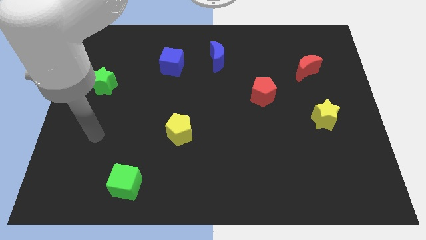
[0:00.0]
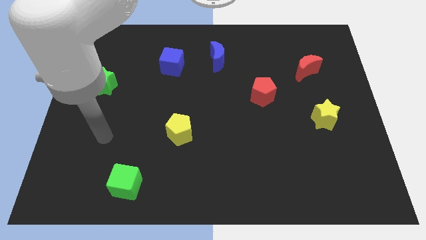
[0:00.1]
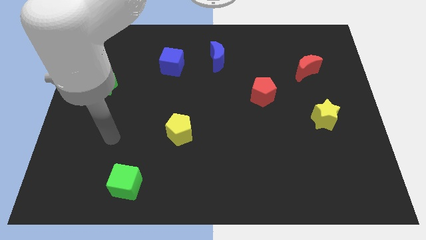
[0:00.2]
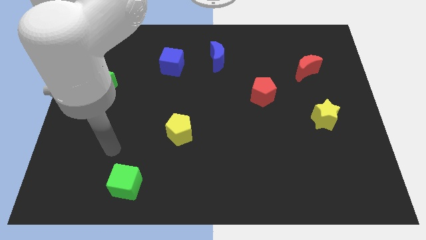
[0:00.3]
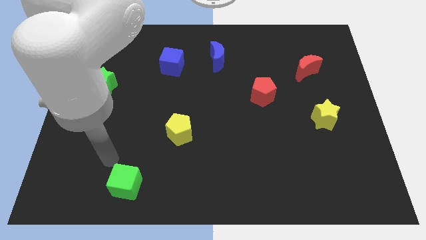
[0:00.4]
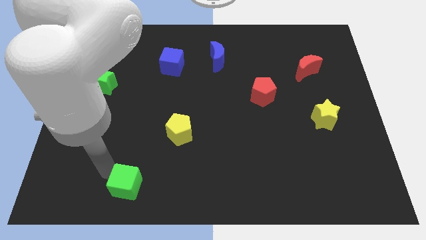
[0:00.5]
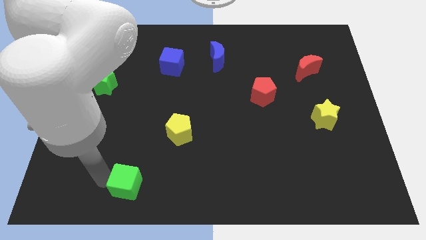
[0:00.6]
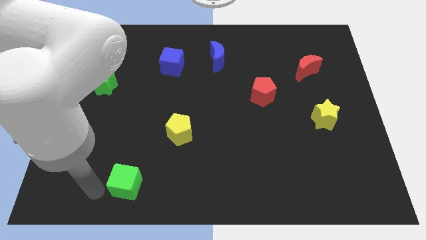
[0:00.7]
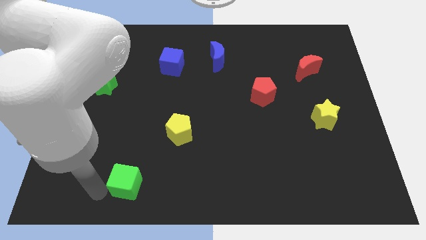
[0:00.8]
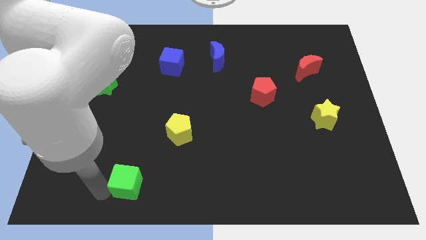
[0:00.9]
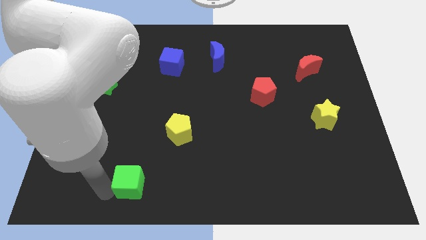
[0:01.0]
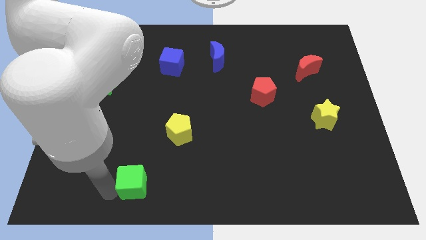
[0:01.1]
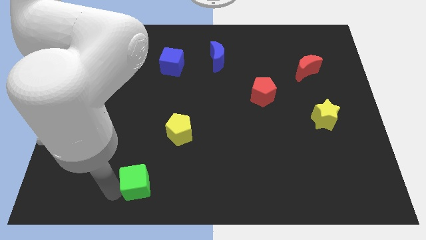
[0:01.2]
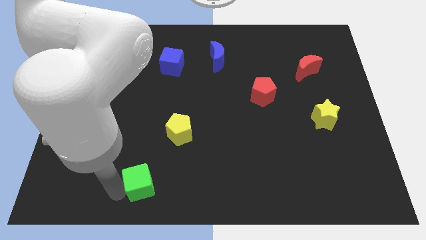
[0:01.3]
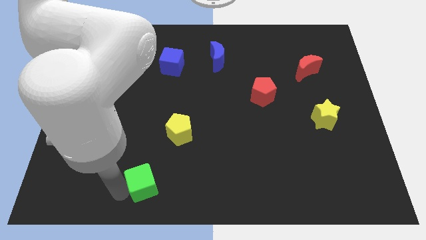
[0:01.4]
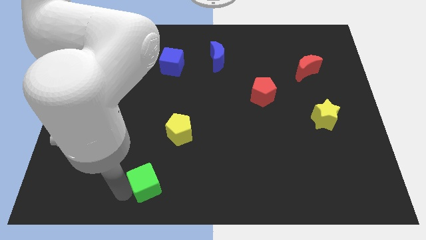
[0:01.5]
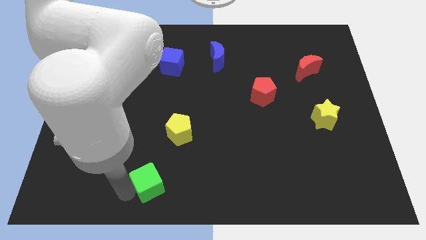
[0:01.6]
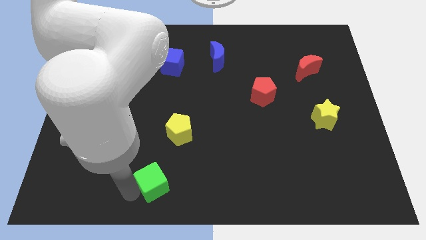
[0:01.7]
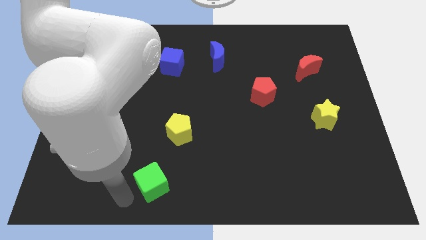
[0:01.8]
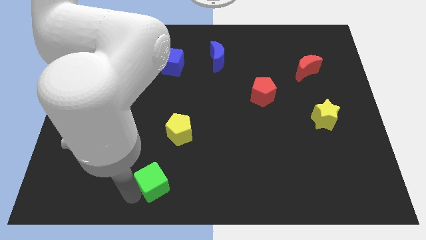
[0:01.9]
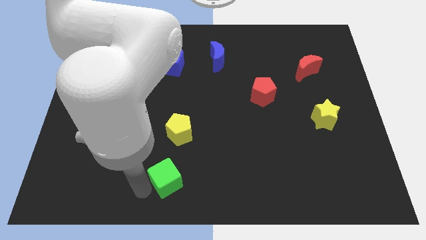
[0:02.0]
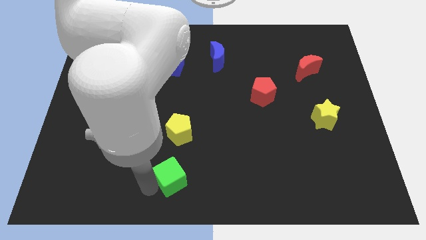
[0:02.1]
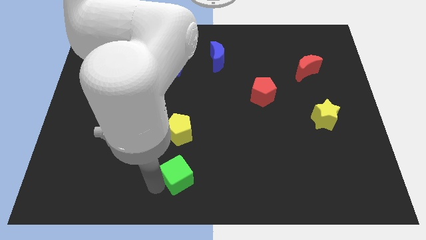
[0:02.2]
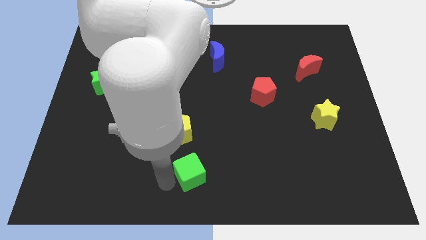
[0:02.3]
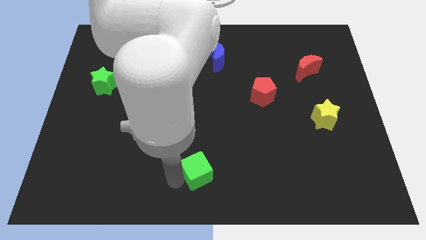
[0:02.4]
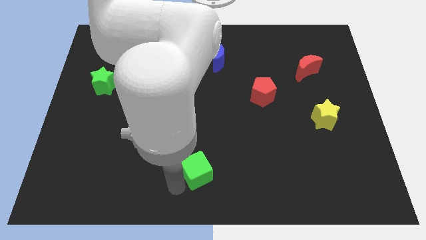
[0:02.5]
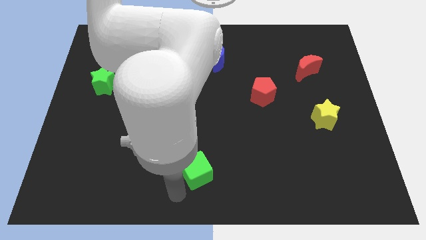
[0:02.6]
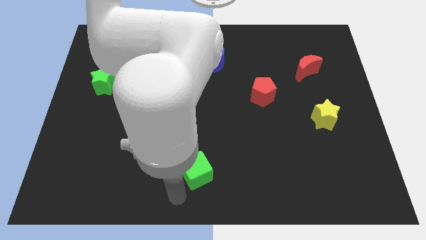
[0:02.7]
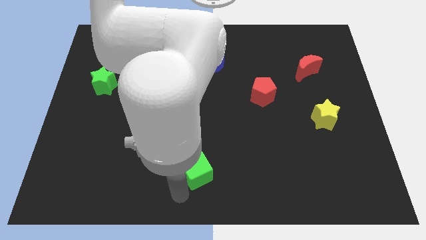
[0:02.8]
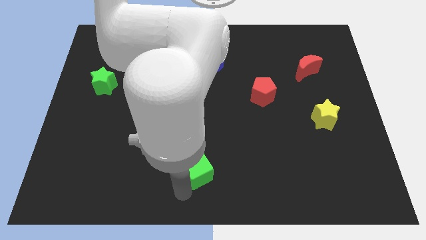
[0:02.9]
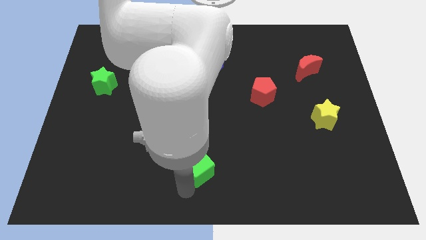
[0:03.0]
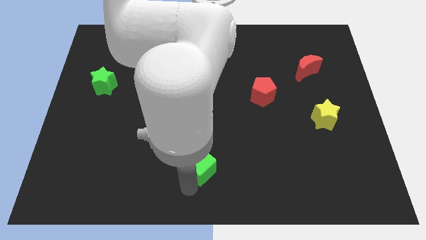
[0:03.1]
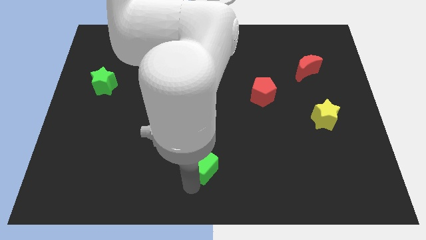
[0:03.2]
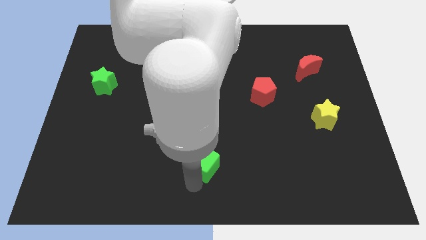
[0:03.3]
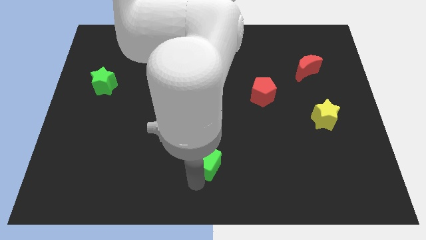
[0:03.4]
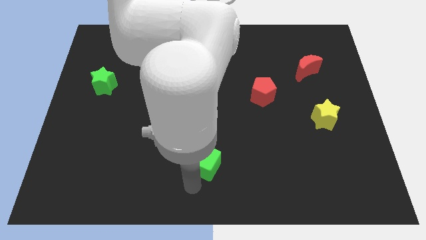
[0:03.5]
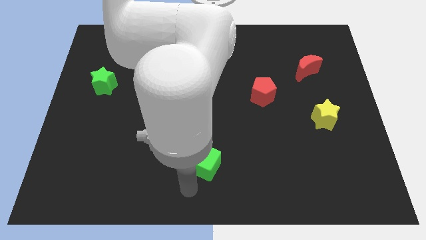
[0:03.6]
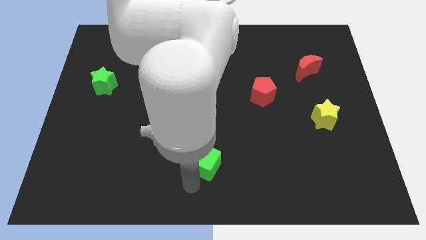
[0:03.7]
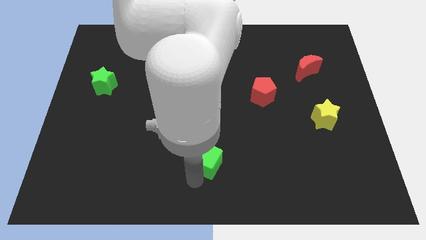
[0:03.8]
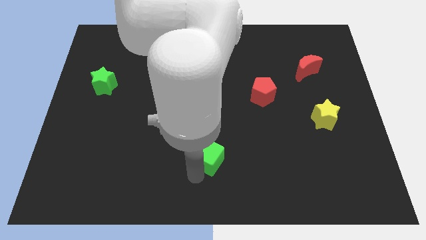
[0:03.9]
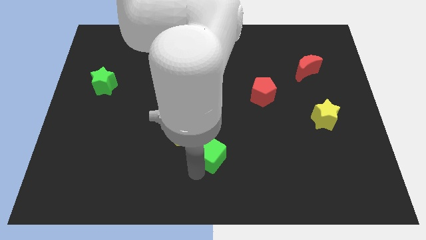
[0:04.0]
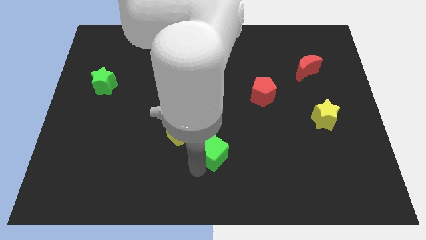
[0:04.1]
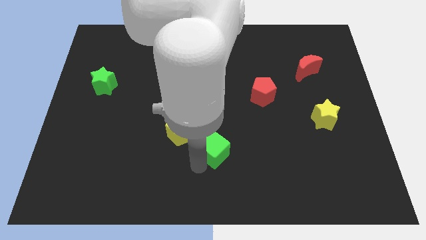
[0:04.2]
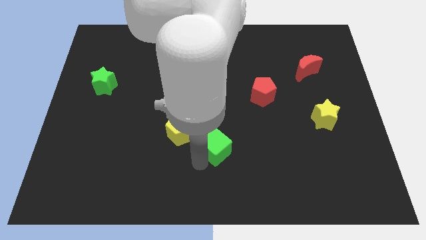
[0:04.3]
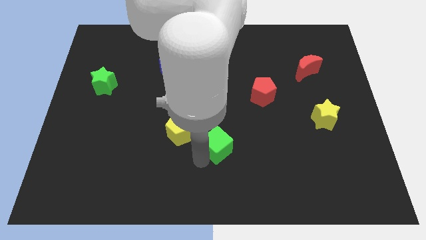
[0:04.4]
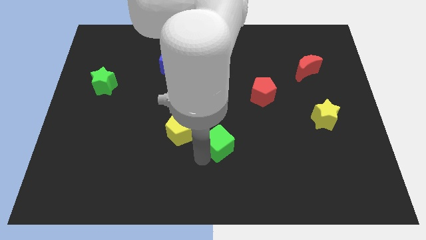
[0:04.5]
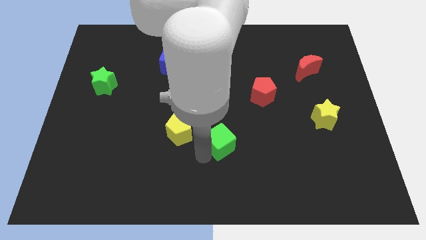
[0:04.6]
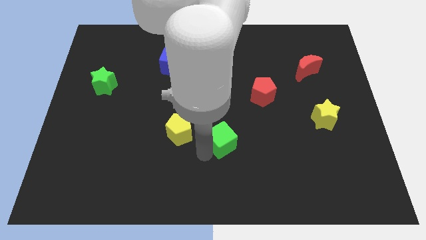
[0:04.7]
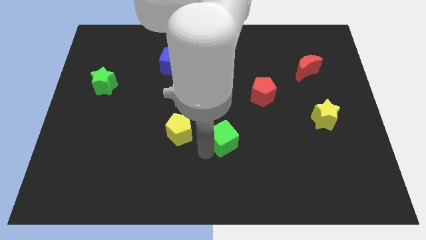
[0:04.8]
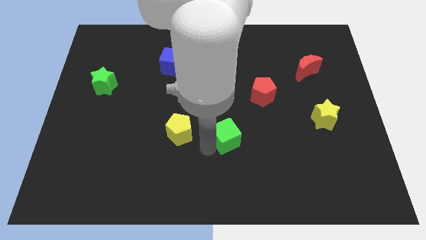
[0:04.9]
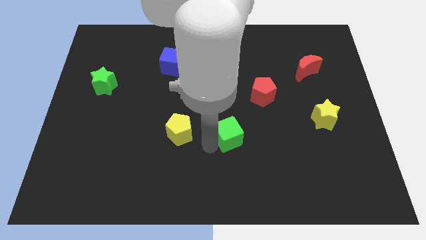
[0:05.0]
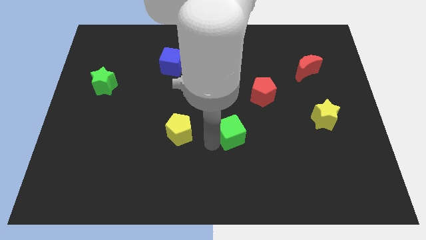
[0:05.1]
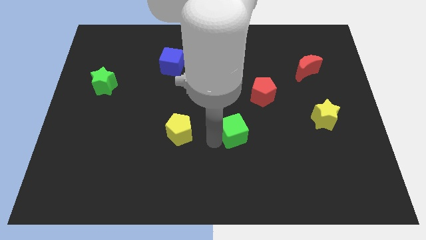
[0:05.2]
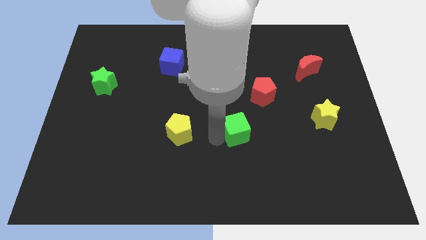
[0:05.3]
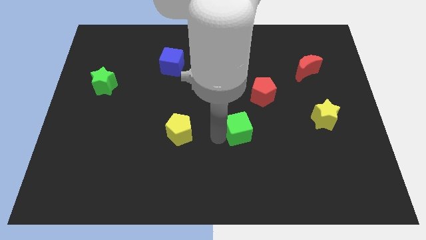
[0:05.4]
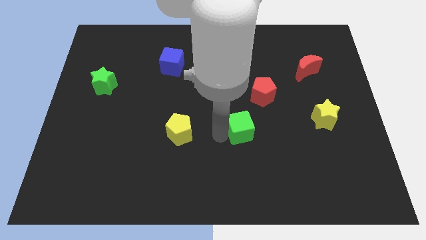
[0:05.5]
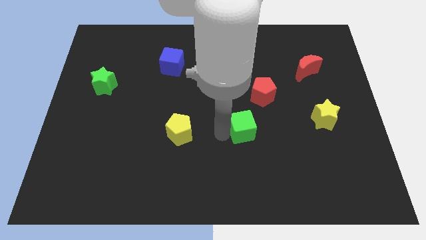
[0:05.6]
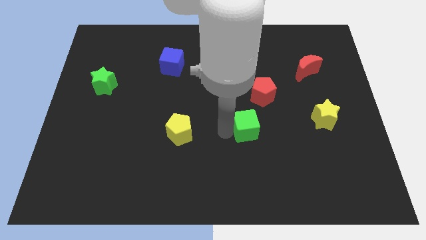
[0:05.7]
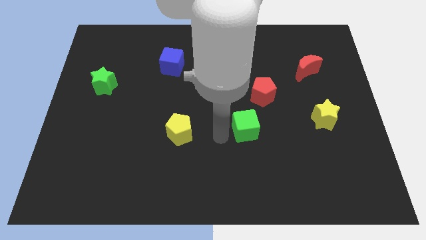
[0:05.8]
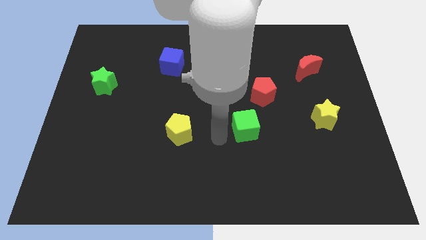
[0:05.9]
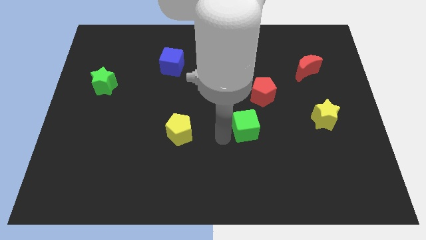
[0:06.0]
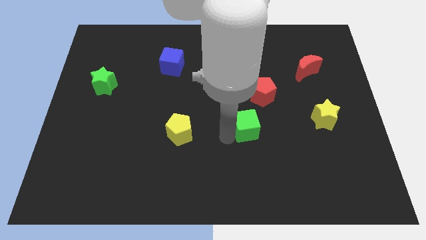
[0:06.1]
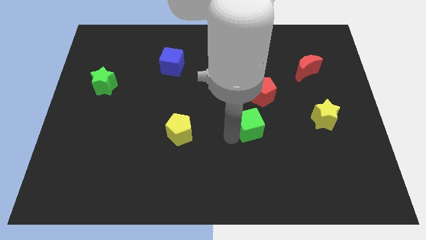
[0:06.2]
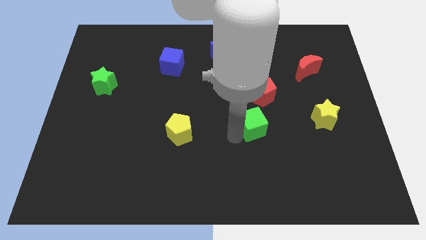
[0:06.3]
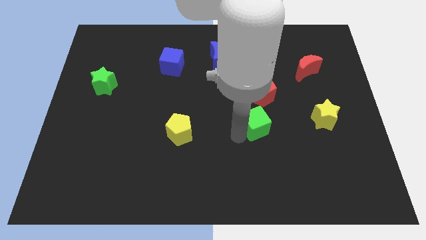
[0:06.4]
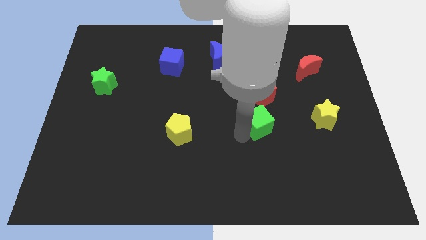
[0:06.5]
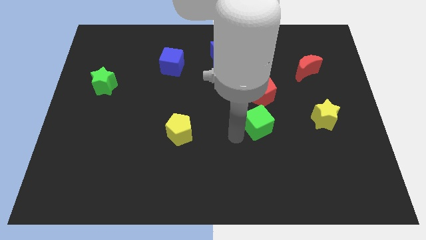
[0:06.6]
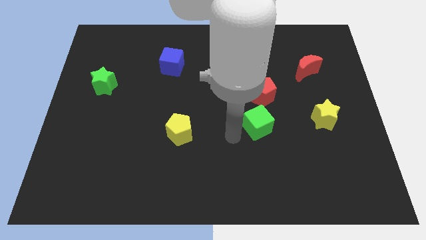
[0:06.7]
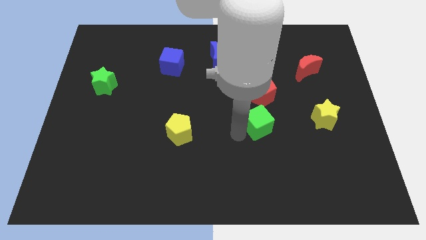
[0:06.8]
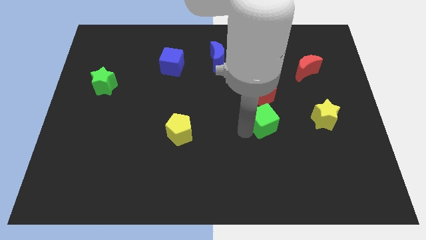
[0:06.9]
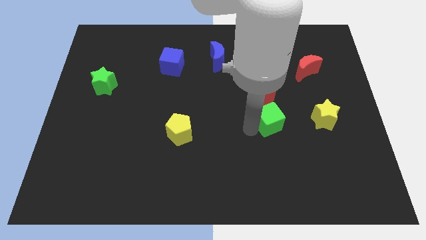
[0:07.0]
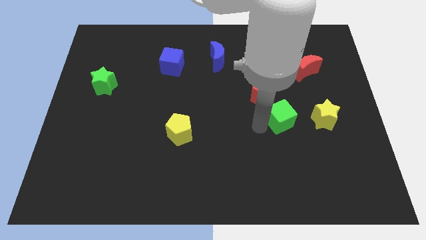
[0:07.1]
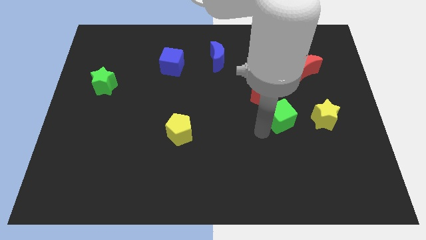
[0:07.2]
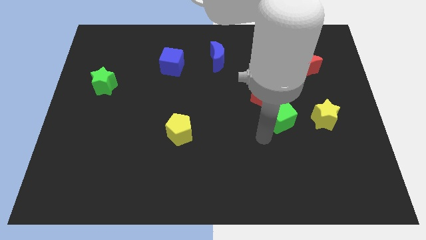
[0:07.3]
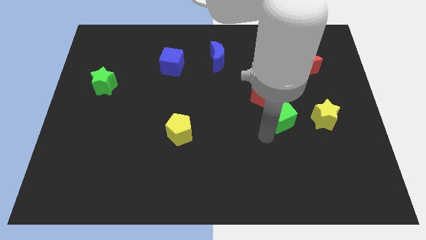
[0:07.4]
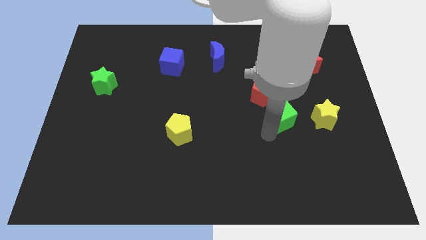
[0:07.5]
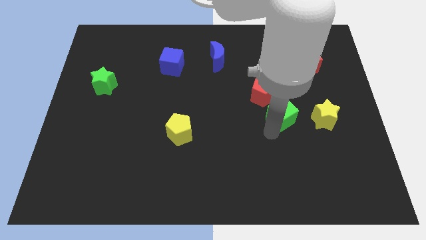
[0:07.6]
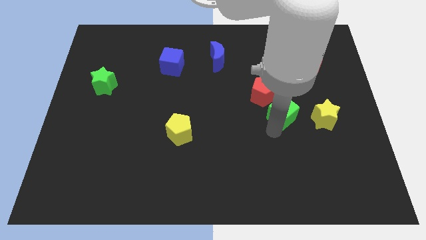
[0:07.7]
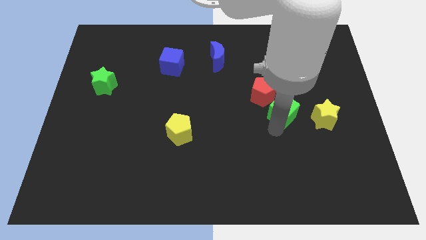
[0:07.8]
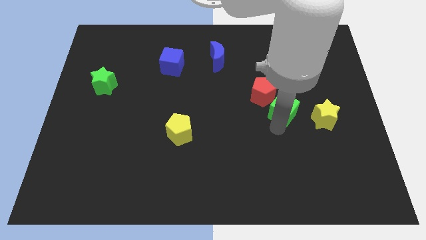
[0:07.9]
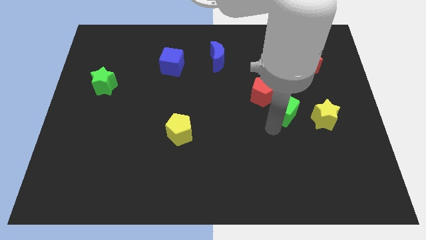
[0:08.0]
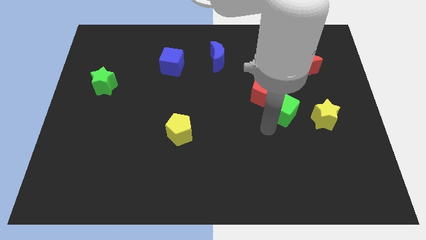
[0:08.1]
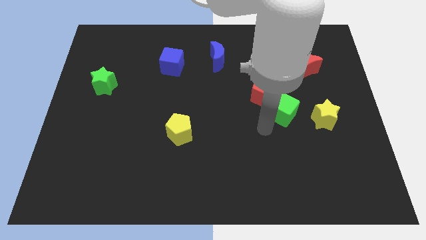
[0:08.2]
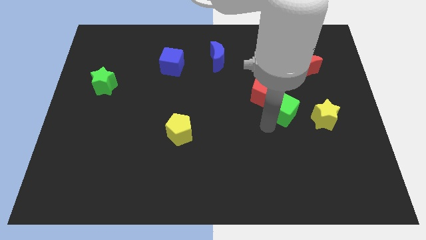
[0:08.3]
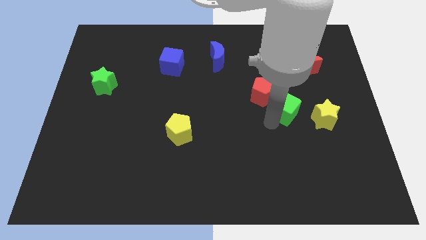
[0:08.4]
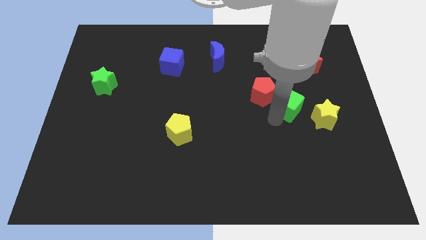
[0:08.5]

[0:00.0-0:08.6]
put the green cube to the right of the red pentagon
